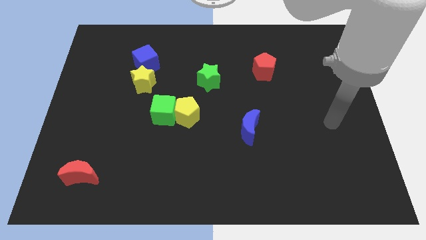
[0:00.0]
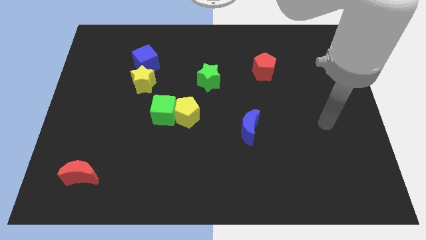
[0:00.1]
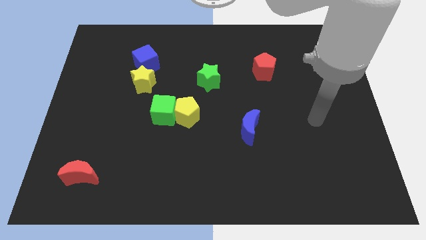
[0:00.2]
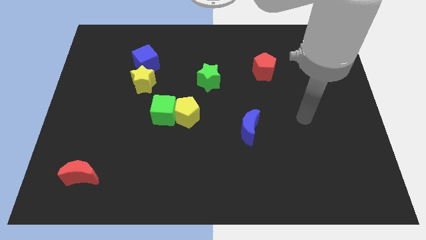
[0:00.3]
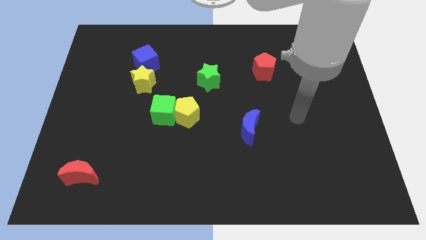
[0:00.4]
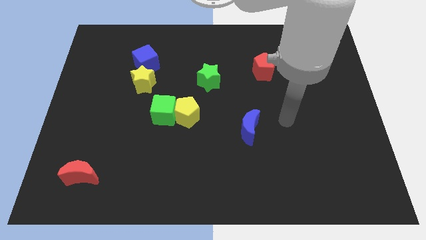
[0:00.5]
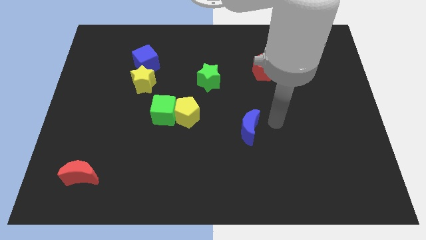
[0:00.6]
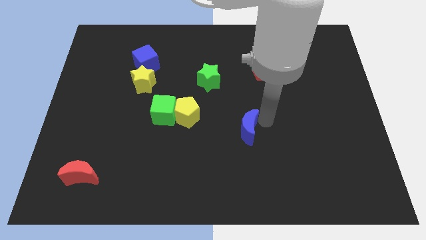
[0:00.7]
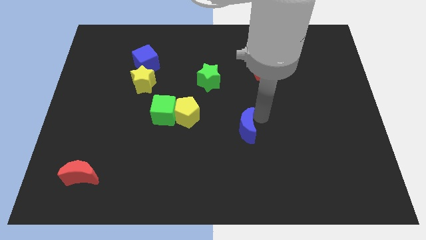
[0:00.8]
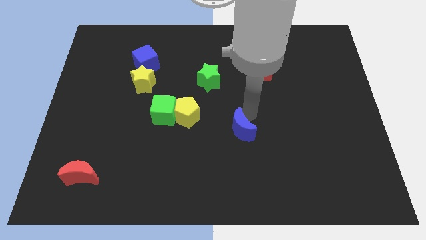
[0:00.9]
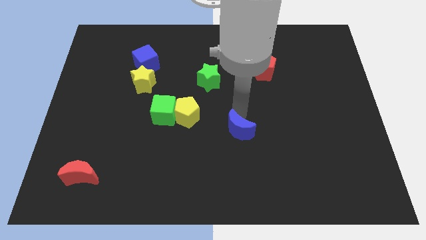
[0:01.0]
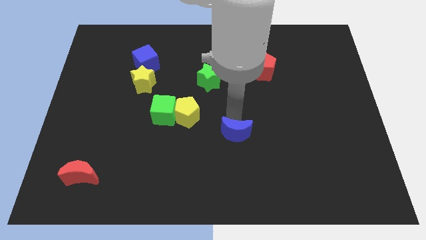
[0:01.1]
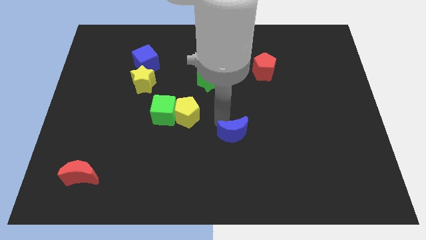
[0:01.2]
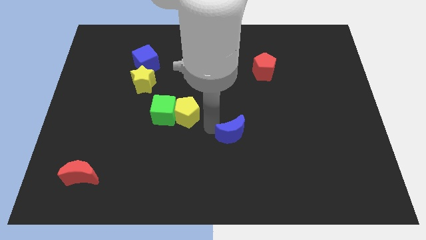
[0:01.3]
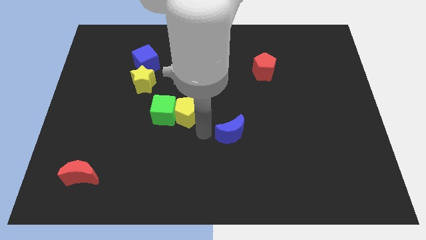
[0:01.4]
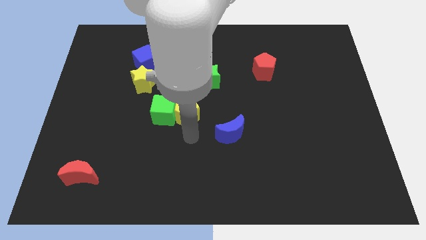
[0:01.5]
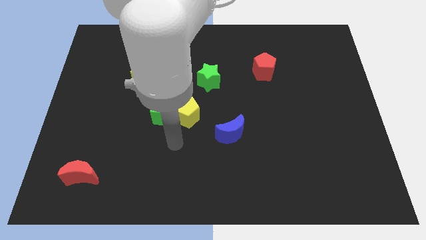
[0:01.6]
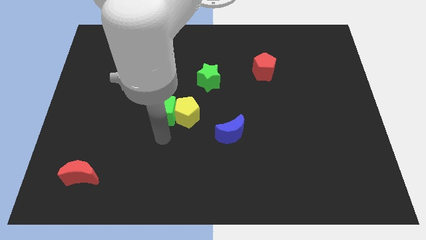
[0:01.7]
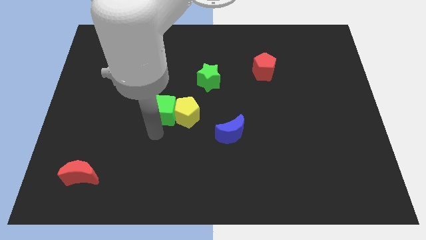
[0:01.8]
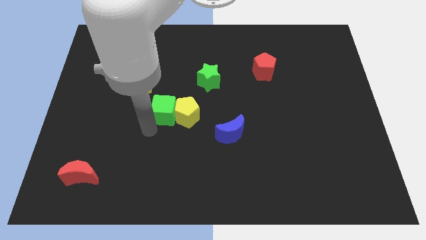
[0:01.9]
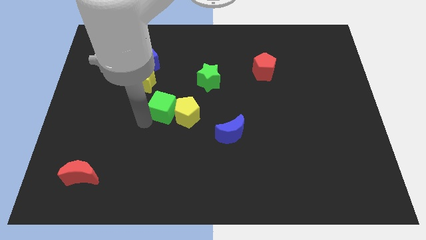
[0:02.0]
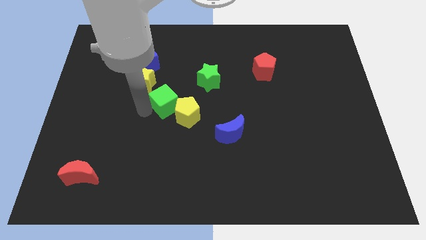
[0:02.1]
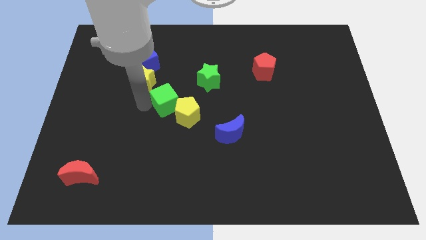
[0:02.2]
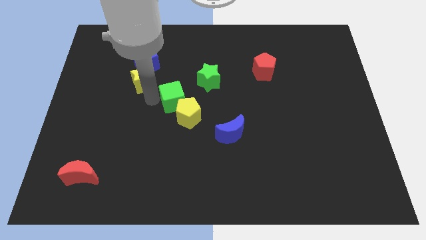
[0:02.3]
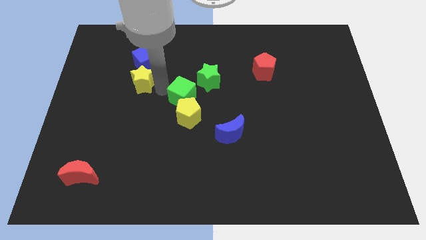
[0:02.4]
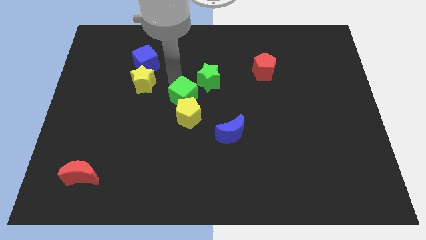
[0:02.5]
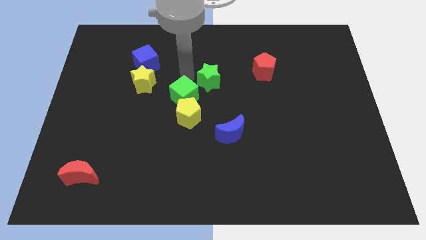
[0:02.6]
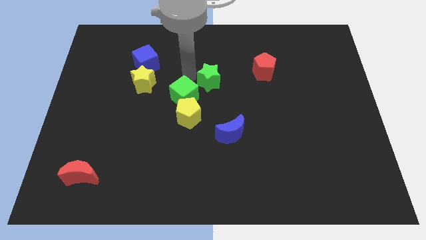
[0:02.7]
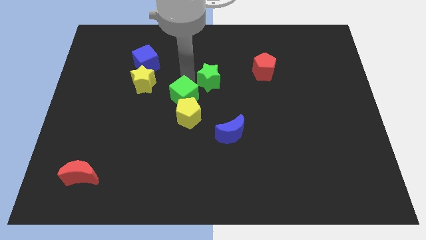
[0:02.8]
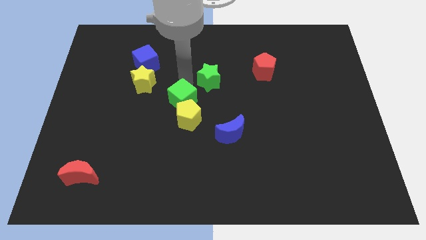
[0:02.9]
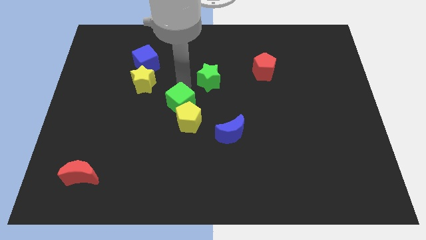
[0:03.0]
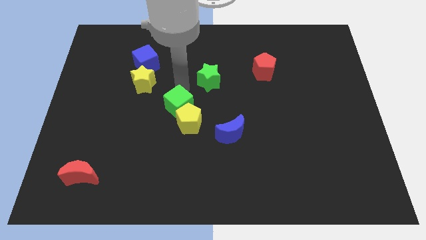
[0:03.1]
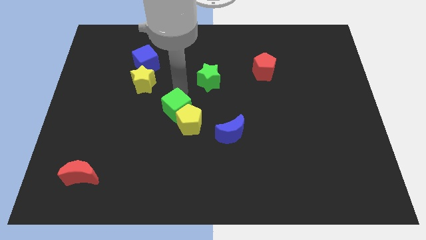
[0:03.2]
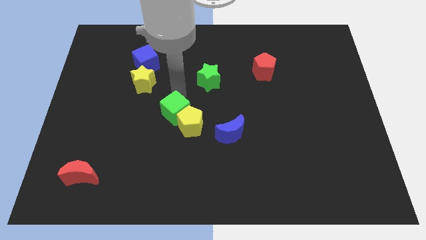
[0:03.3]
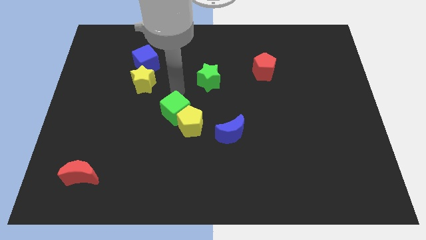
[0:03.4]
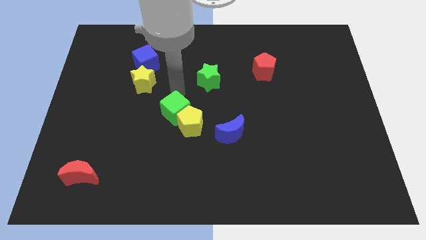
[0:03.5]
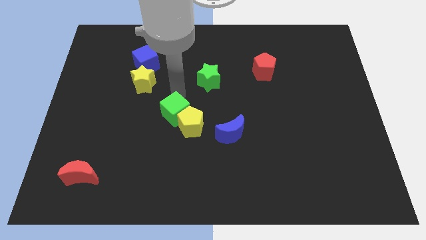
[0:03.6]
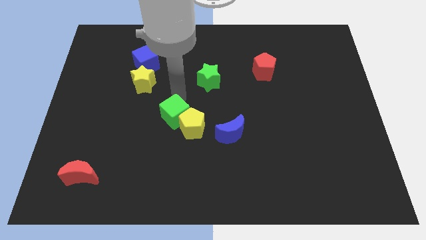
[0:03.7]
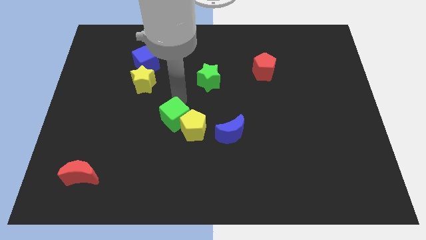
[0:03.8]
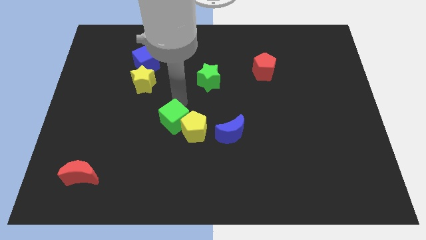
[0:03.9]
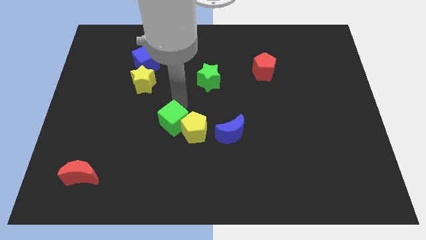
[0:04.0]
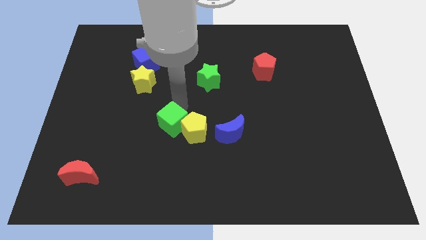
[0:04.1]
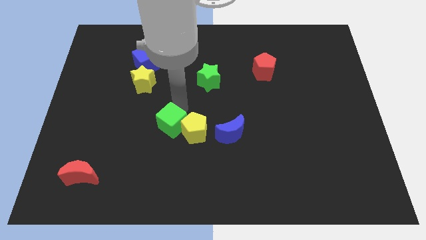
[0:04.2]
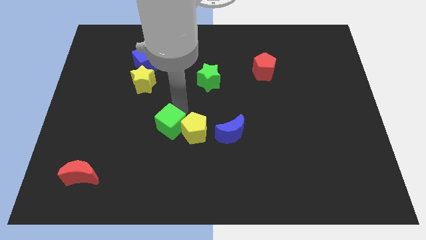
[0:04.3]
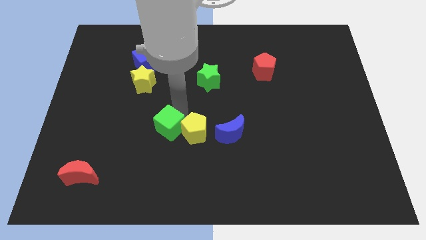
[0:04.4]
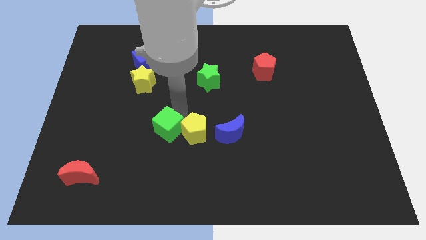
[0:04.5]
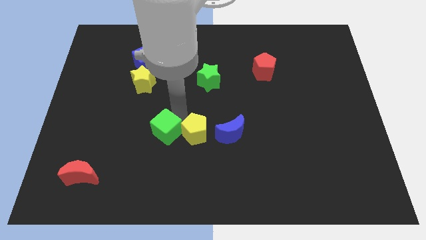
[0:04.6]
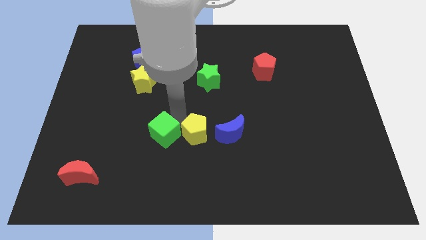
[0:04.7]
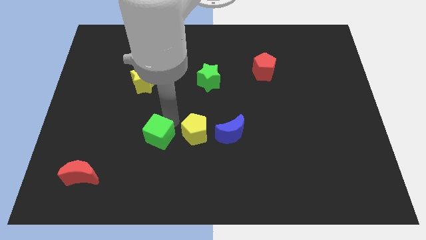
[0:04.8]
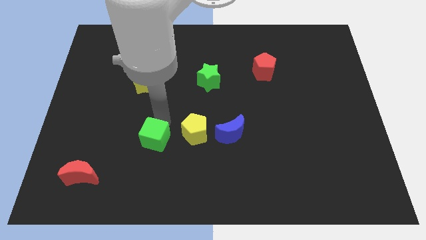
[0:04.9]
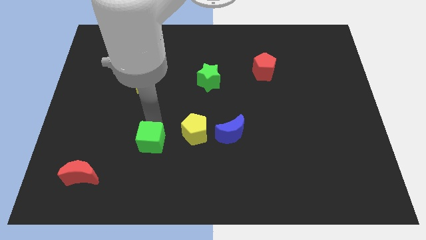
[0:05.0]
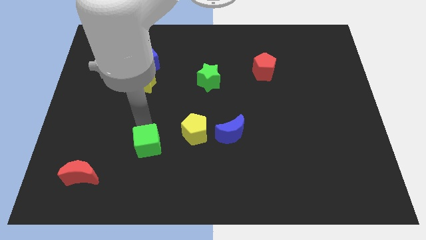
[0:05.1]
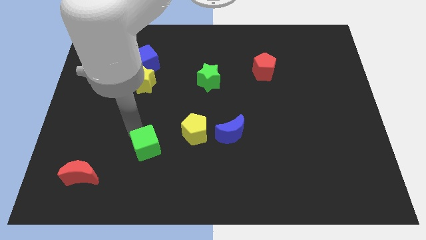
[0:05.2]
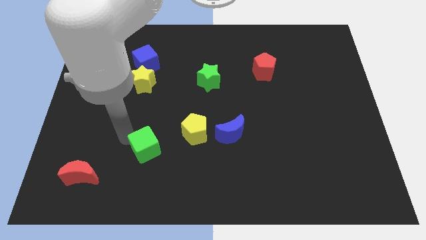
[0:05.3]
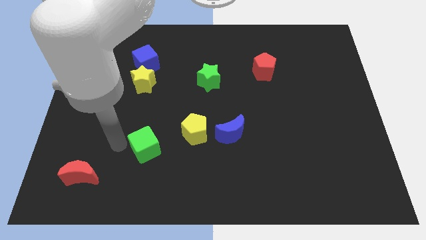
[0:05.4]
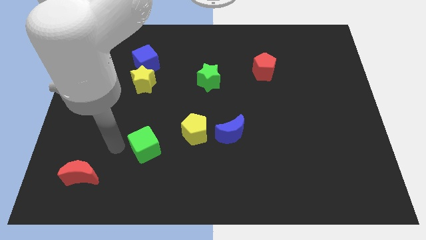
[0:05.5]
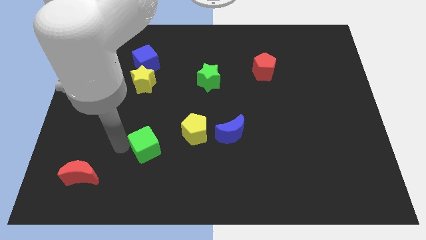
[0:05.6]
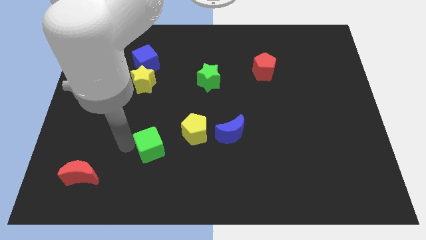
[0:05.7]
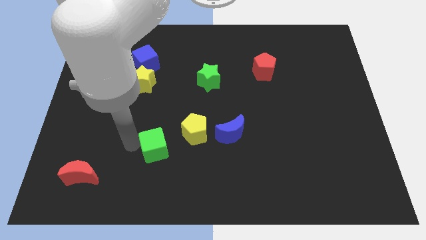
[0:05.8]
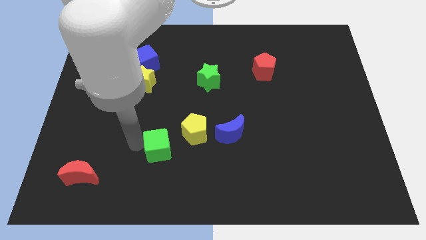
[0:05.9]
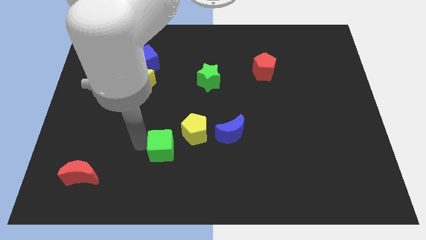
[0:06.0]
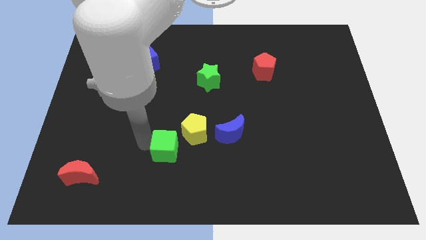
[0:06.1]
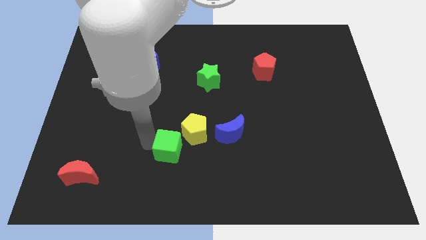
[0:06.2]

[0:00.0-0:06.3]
move the green cube downwards and right diagonally a bit

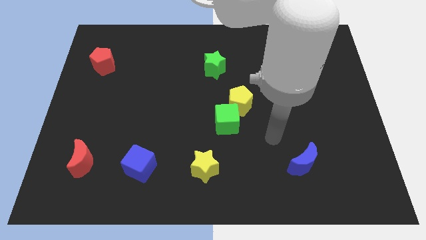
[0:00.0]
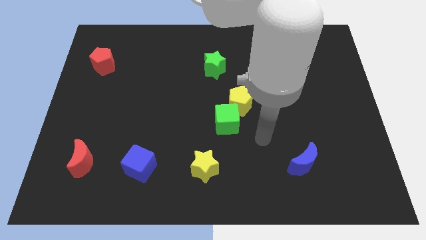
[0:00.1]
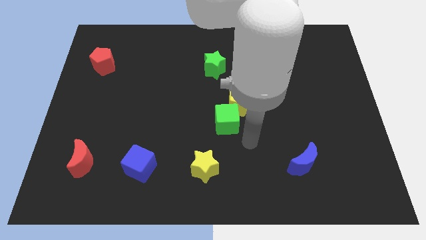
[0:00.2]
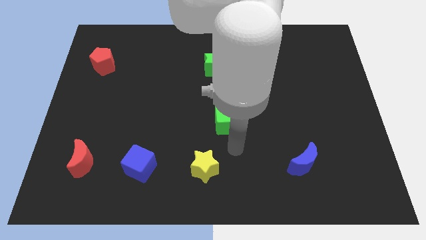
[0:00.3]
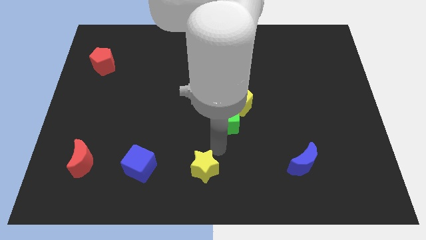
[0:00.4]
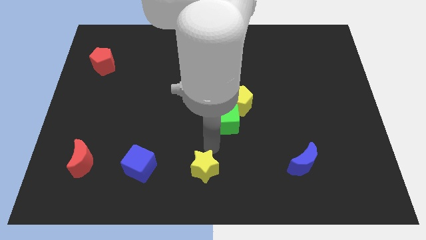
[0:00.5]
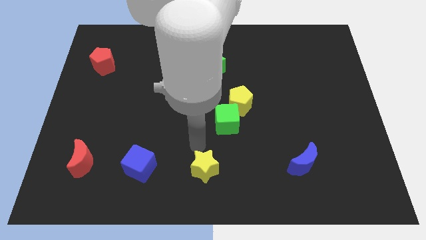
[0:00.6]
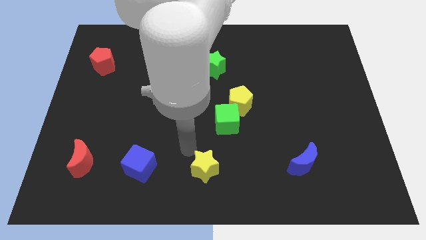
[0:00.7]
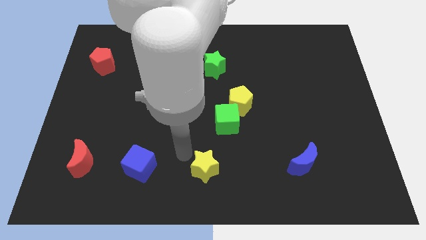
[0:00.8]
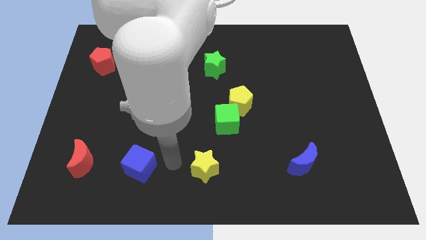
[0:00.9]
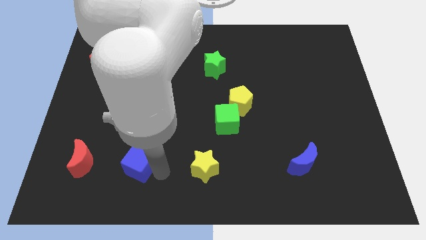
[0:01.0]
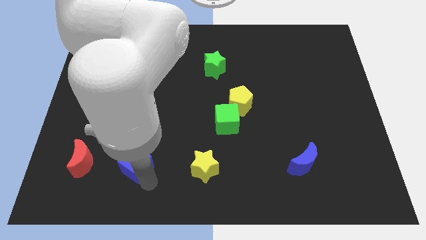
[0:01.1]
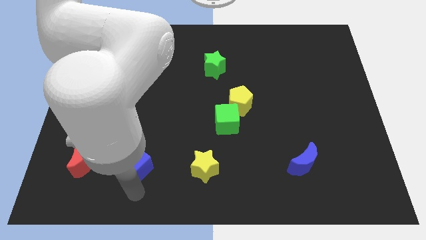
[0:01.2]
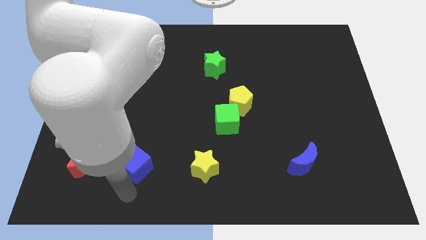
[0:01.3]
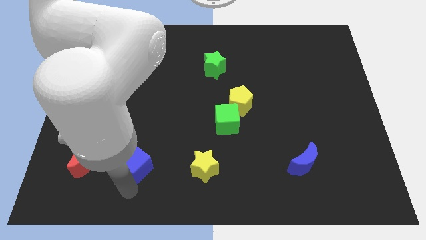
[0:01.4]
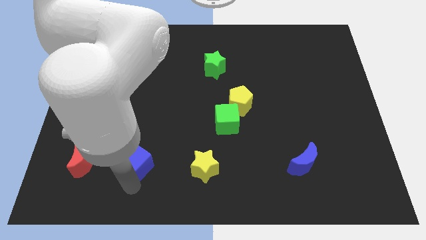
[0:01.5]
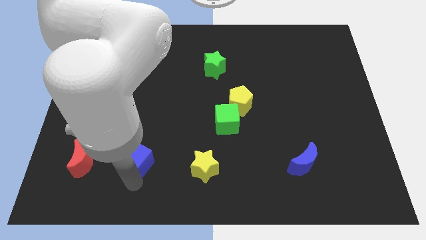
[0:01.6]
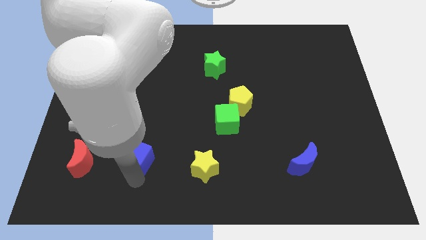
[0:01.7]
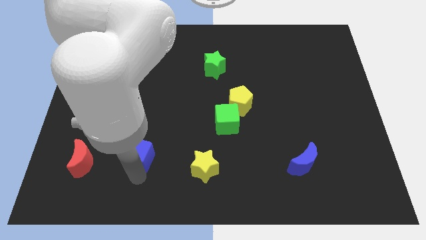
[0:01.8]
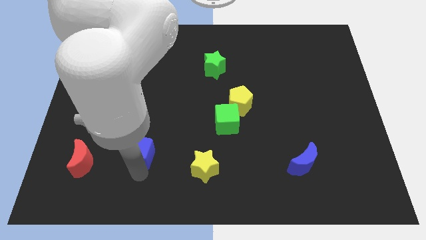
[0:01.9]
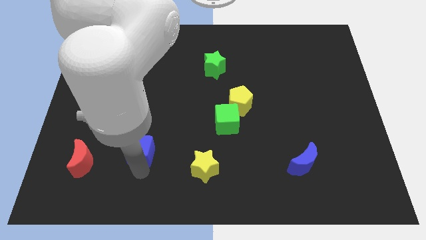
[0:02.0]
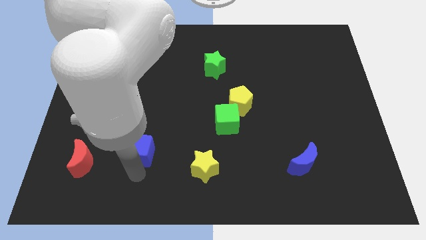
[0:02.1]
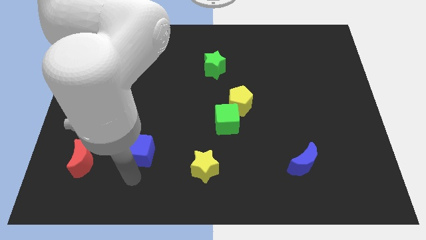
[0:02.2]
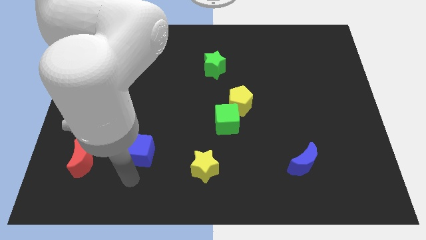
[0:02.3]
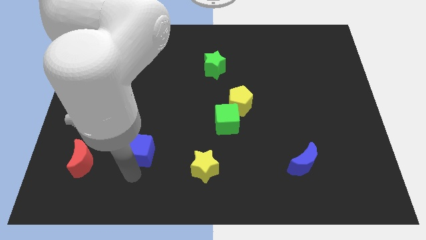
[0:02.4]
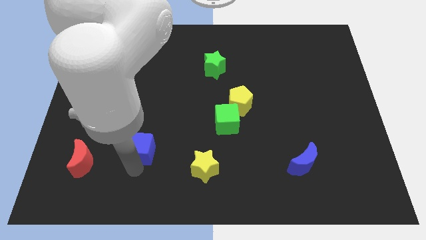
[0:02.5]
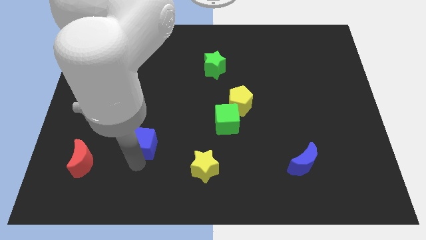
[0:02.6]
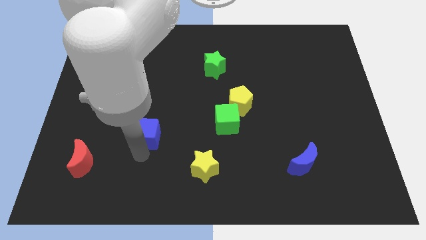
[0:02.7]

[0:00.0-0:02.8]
push the blue cube up a bit
